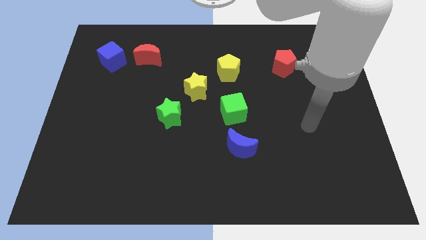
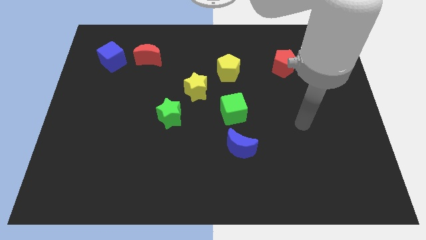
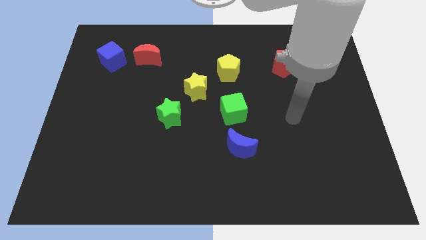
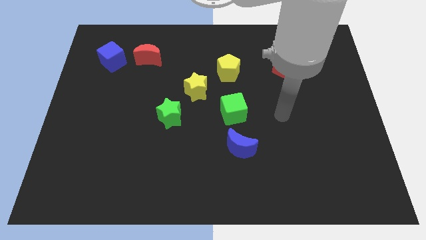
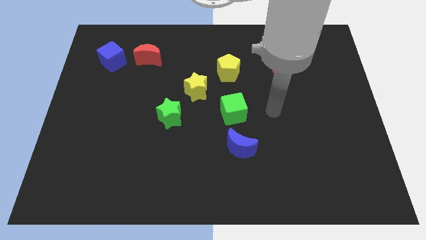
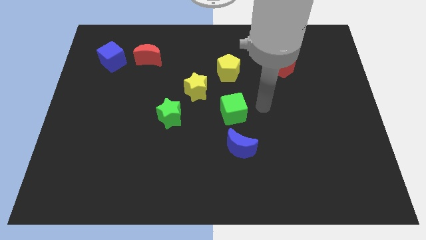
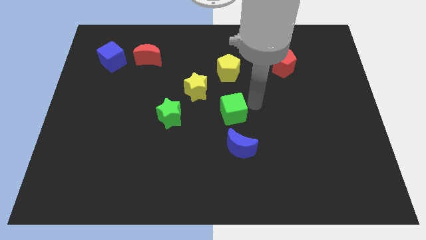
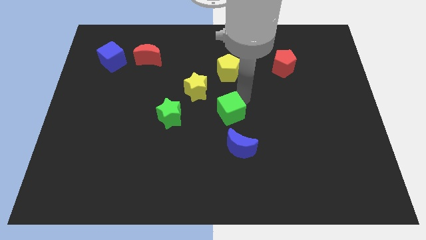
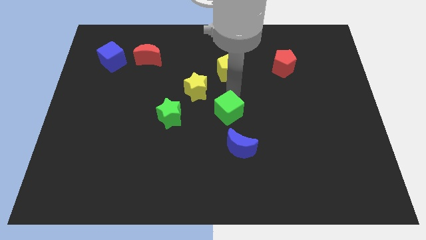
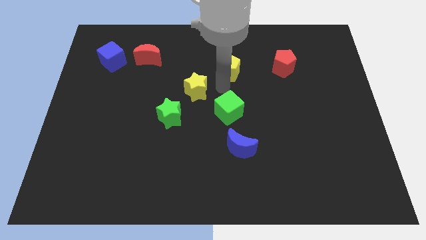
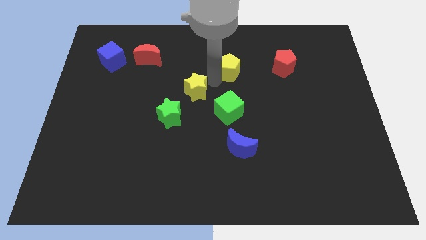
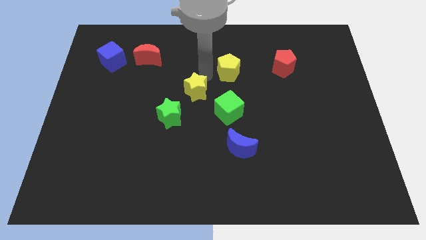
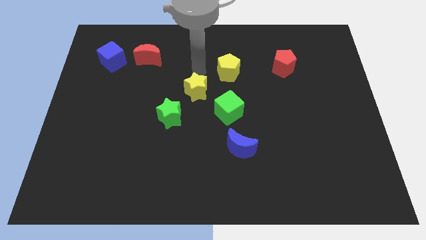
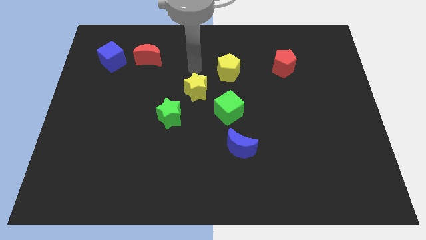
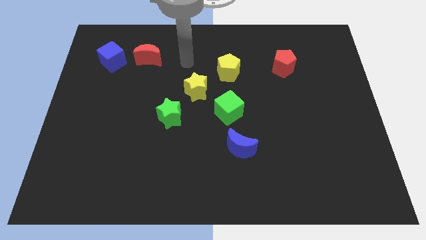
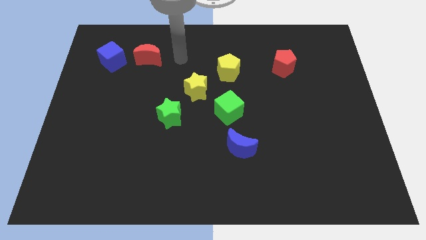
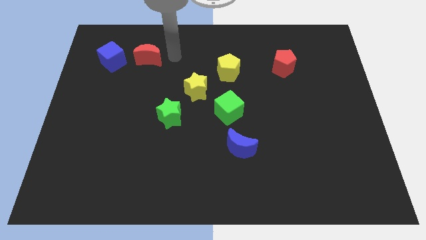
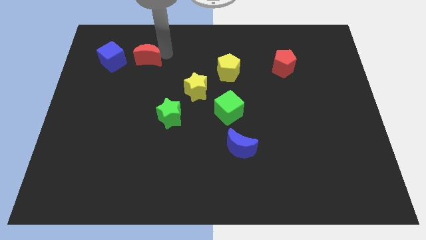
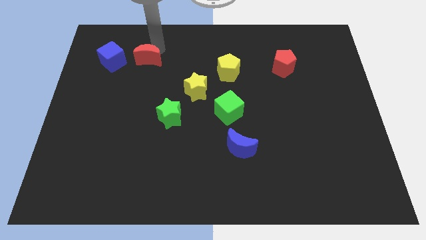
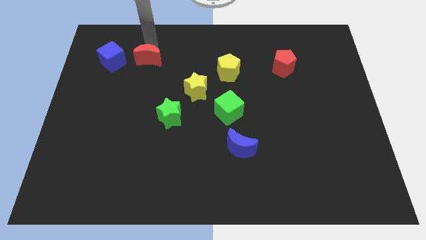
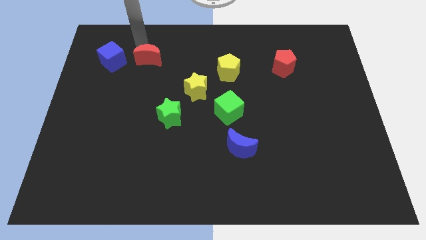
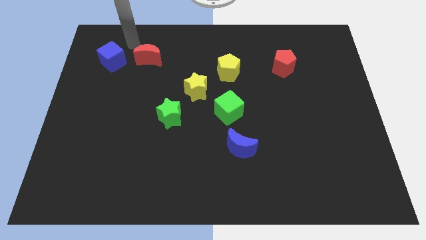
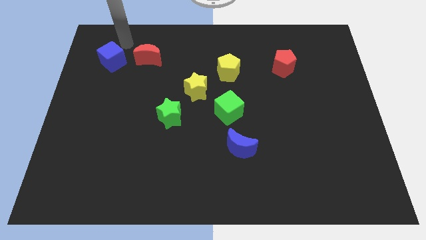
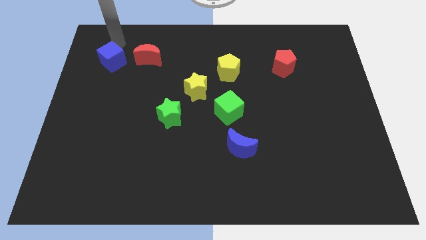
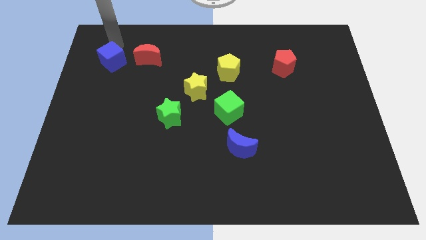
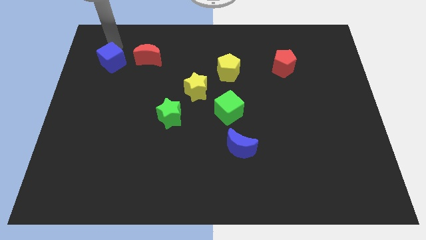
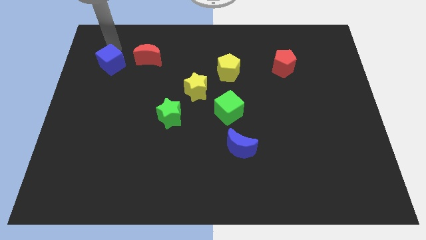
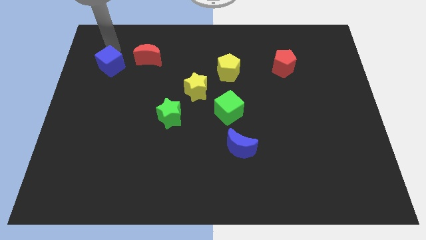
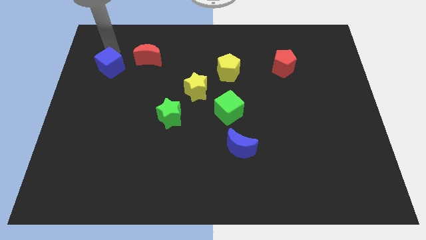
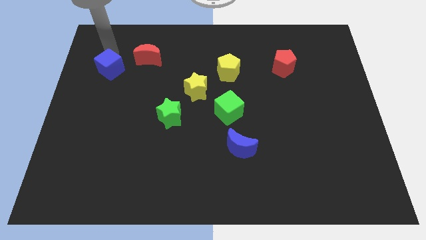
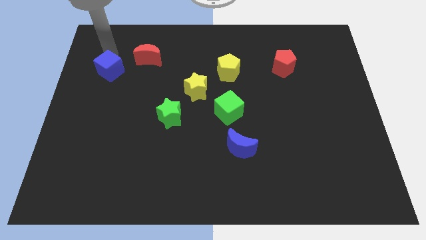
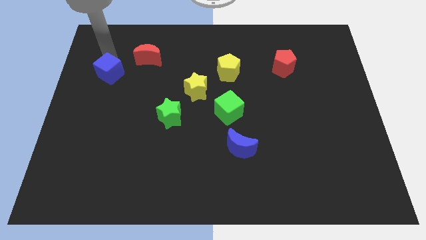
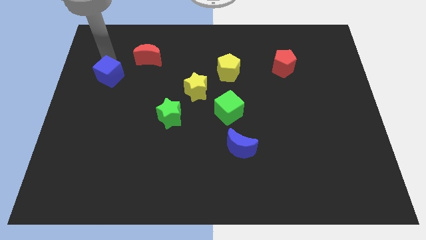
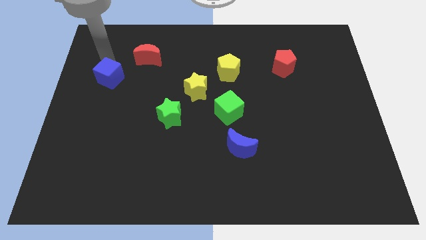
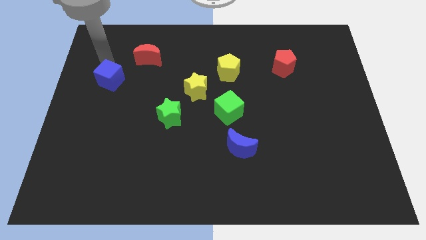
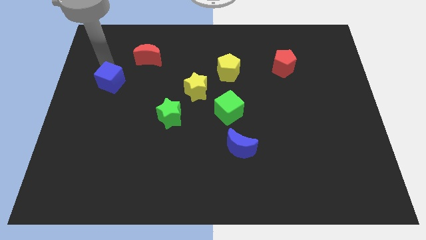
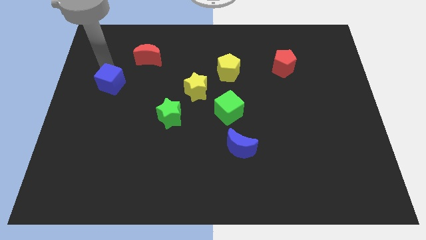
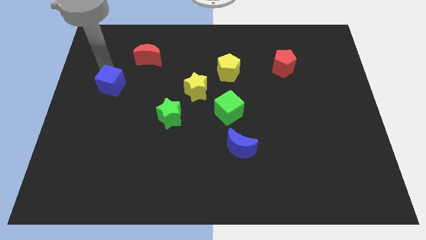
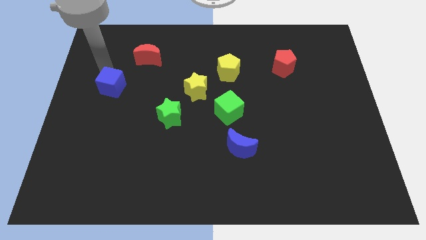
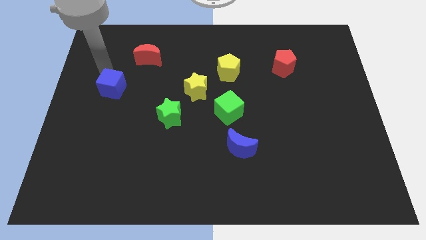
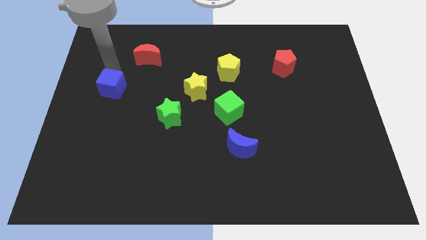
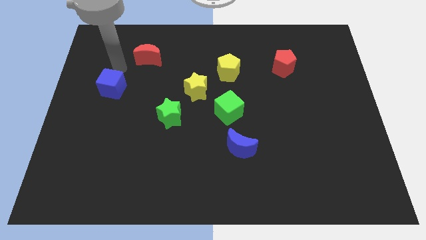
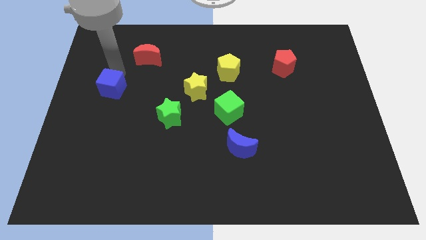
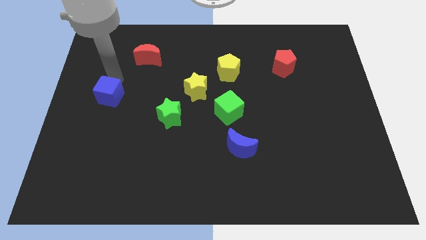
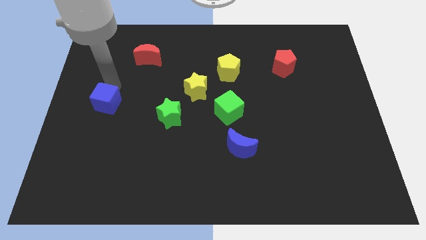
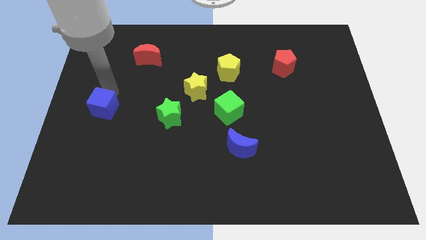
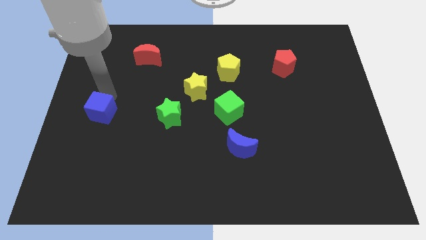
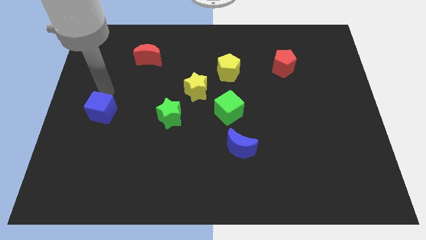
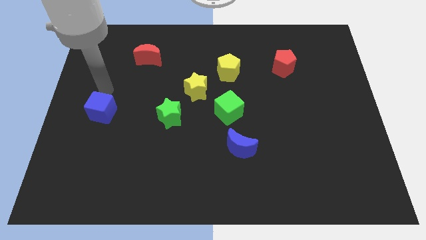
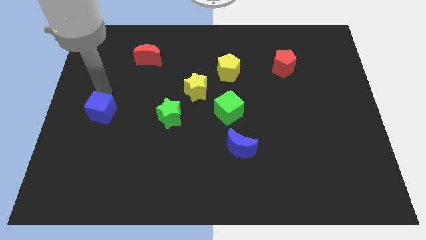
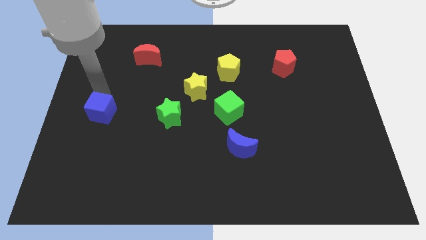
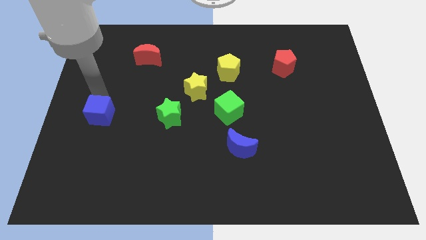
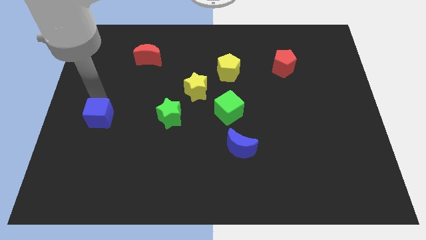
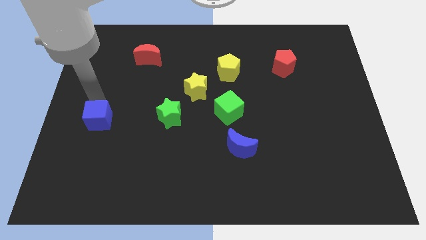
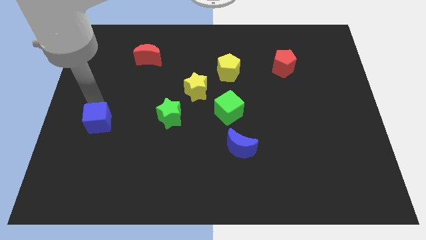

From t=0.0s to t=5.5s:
move the blue cube down

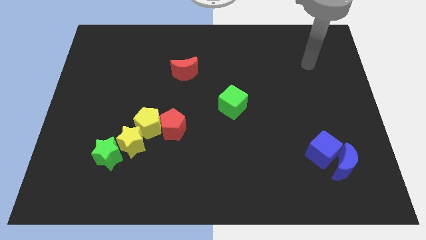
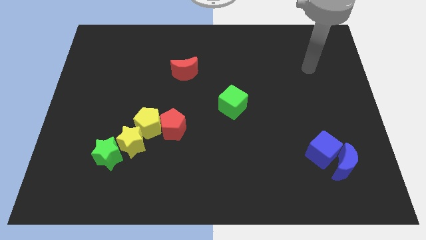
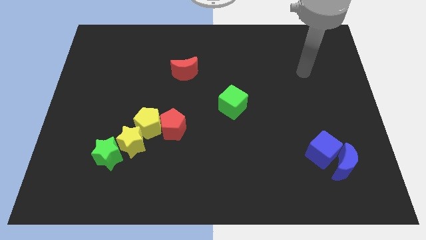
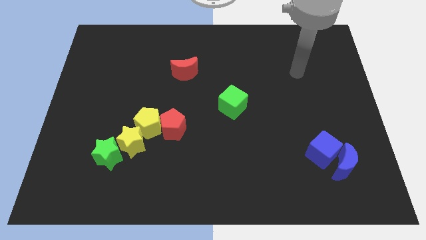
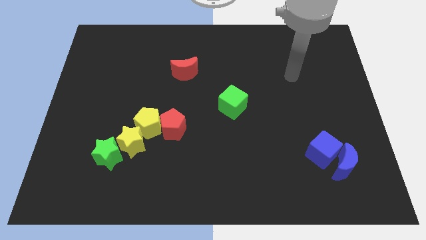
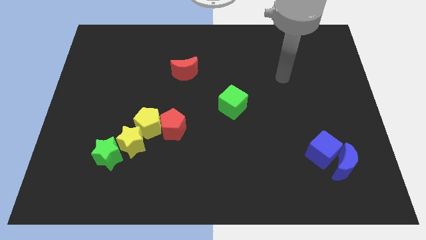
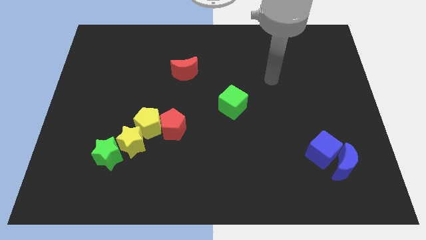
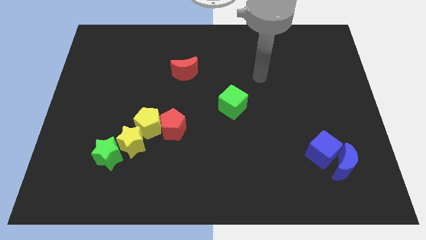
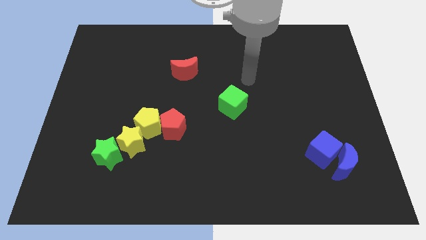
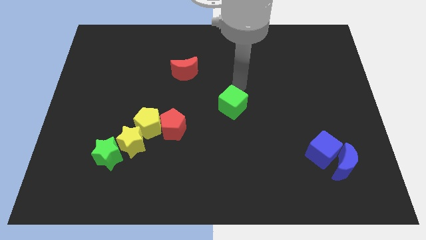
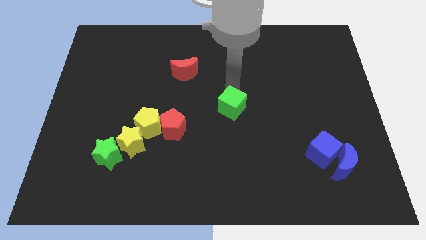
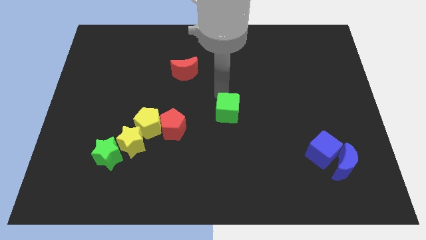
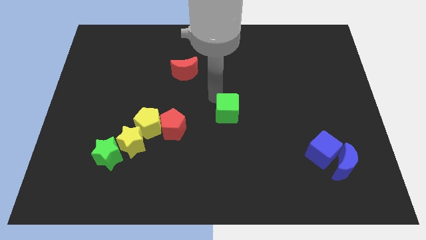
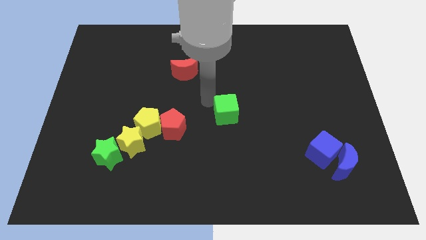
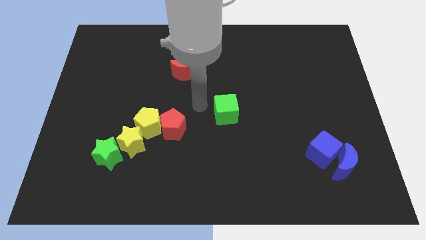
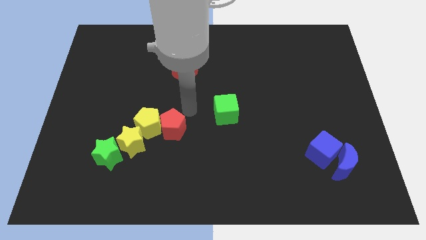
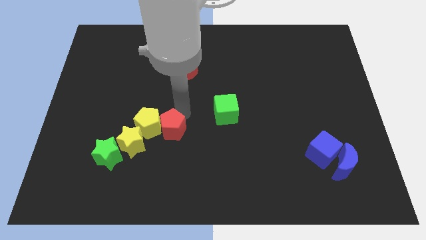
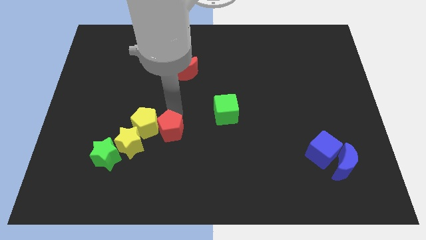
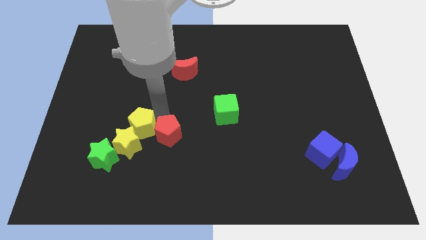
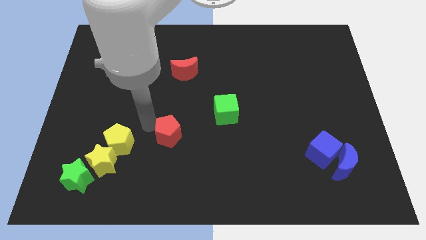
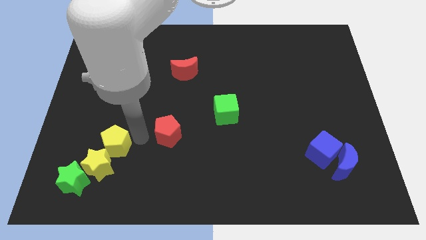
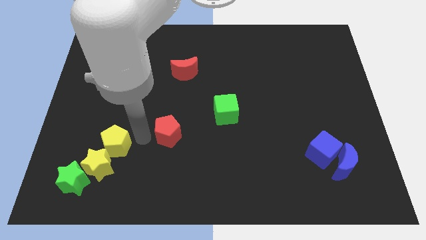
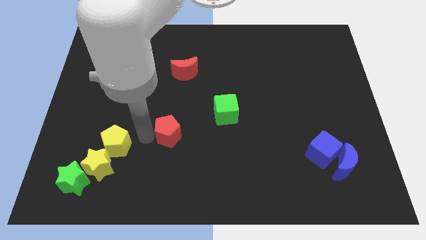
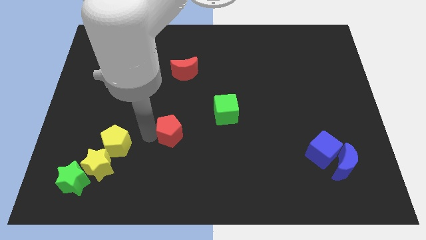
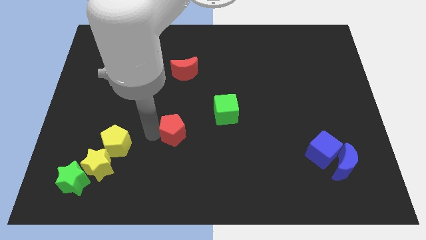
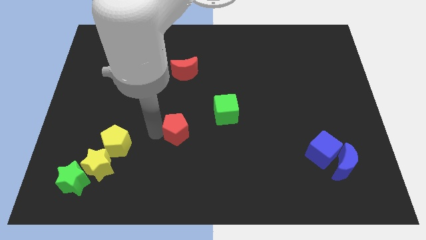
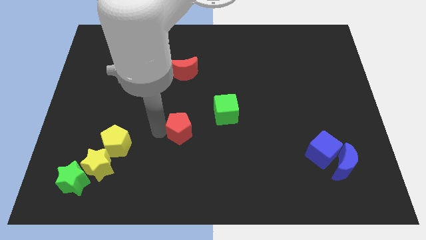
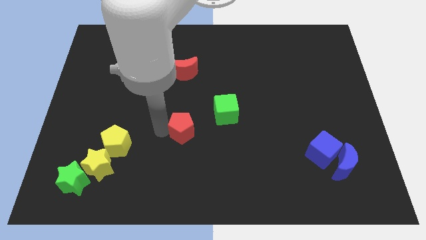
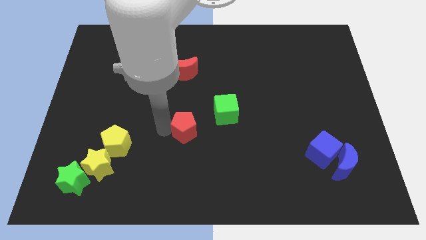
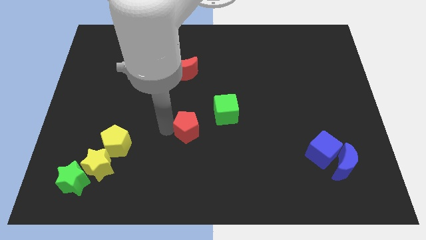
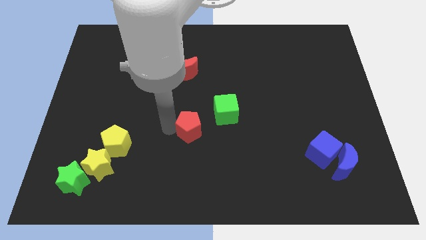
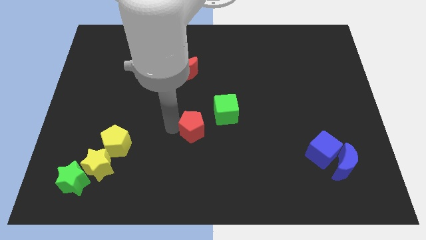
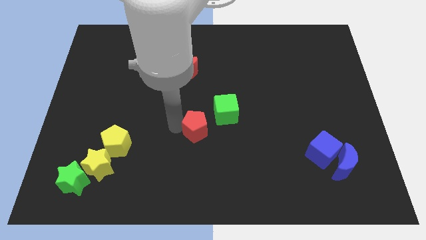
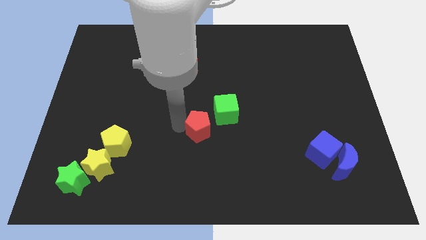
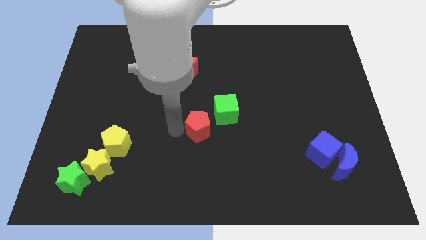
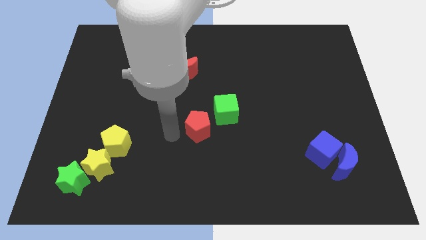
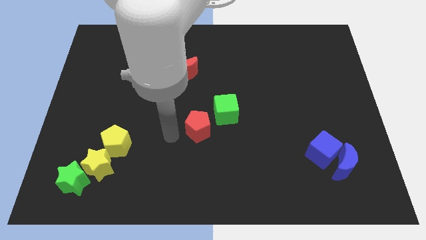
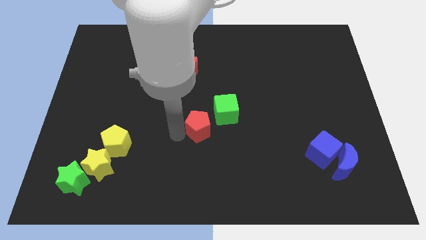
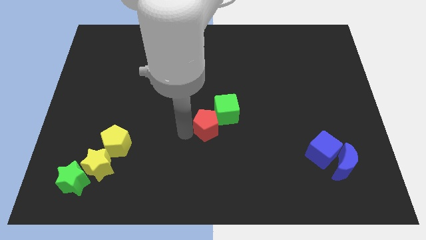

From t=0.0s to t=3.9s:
slightly push the red pentagon to the right
